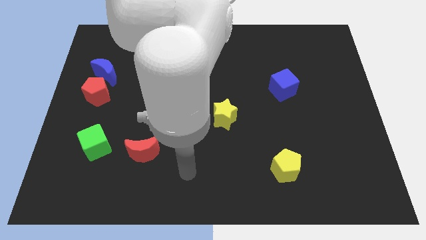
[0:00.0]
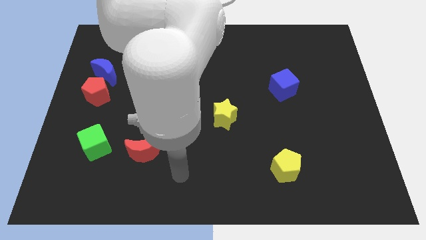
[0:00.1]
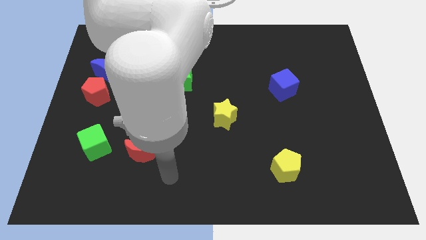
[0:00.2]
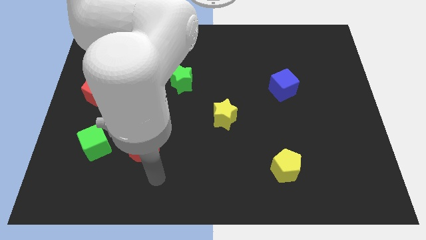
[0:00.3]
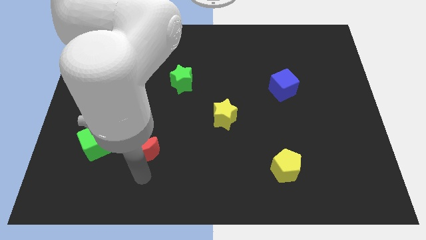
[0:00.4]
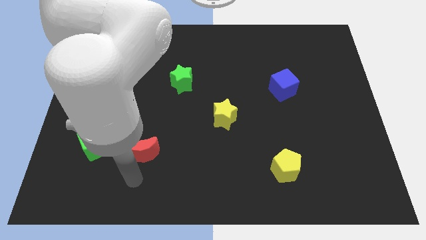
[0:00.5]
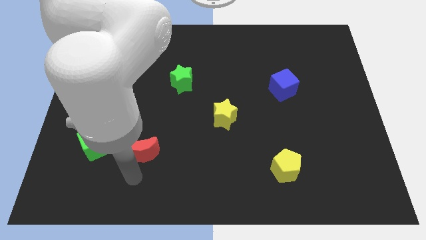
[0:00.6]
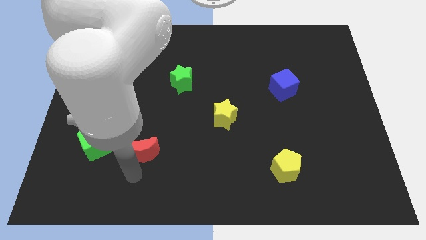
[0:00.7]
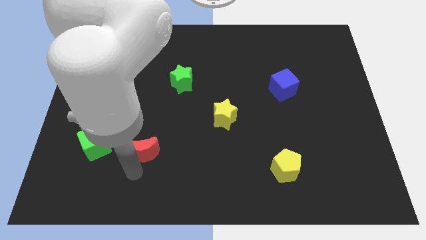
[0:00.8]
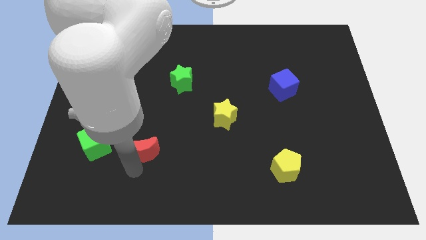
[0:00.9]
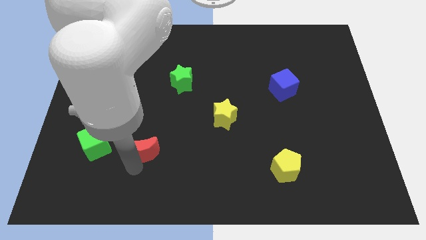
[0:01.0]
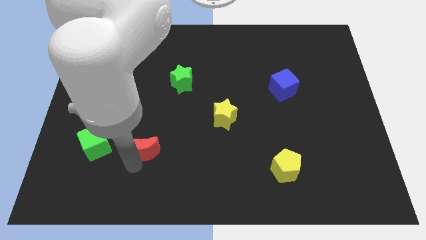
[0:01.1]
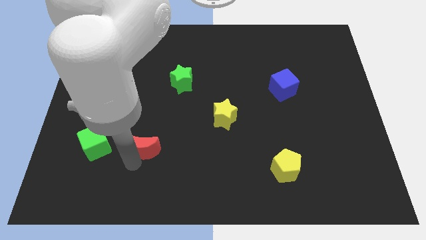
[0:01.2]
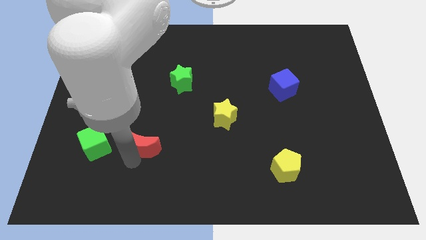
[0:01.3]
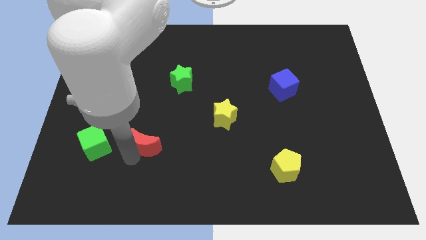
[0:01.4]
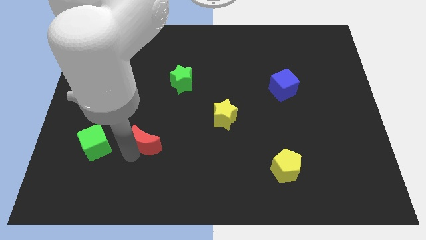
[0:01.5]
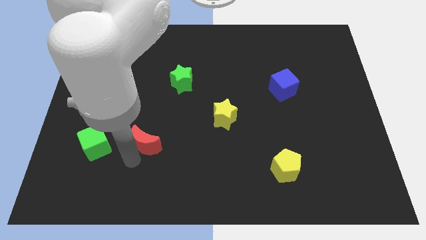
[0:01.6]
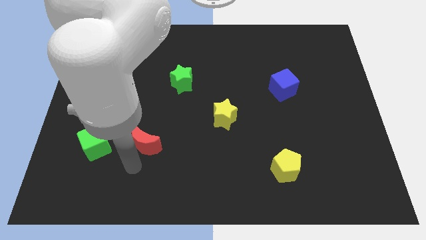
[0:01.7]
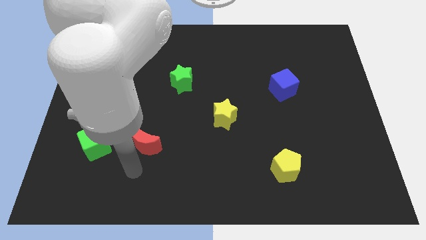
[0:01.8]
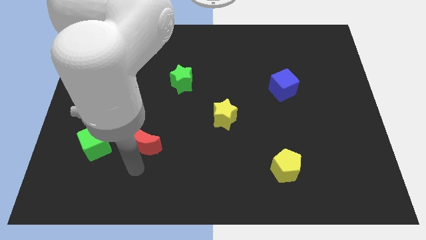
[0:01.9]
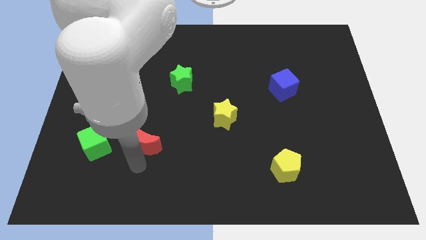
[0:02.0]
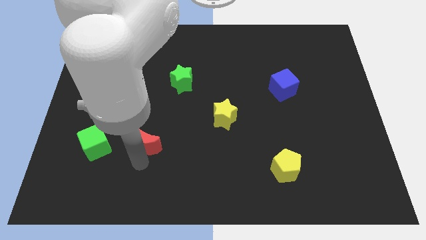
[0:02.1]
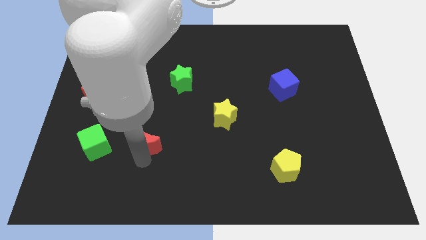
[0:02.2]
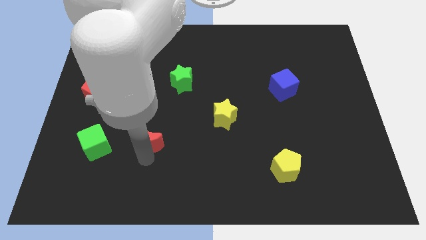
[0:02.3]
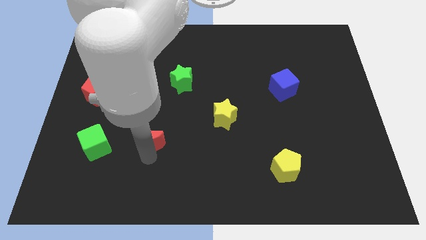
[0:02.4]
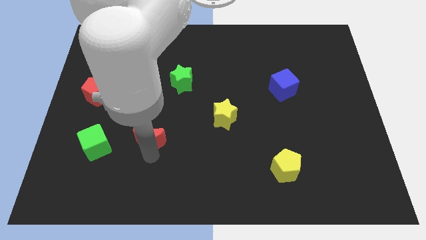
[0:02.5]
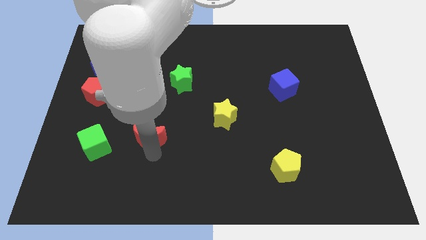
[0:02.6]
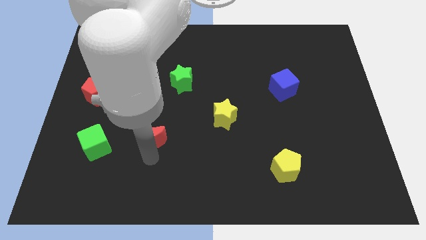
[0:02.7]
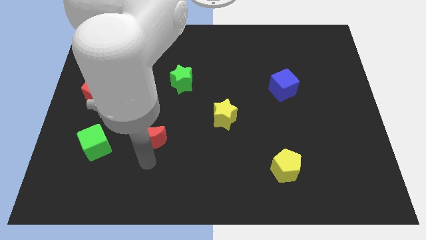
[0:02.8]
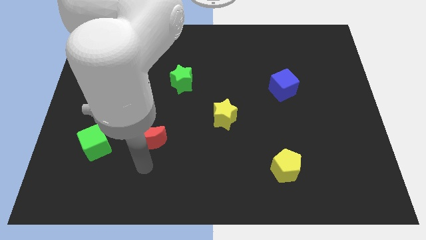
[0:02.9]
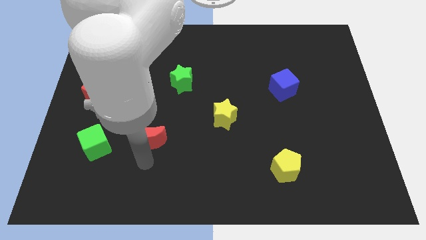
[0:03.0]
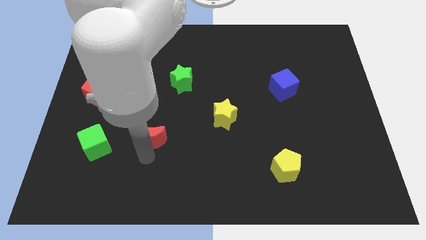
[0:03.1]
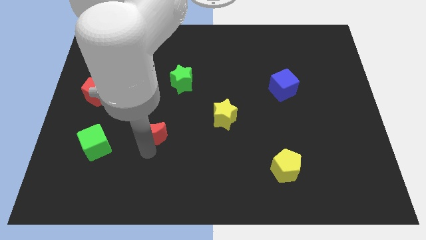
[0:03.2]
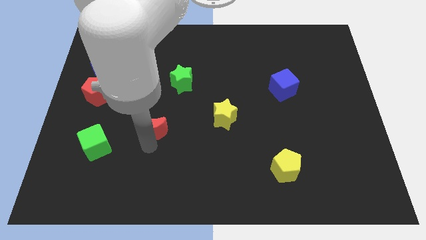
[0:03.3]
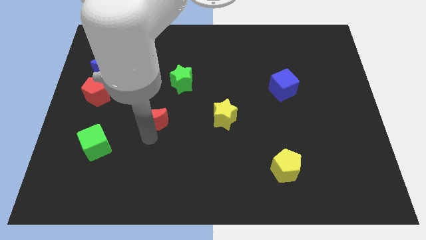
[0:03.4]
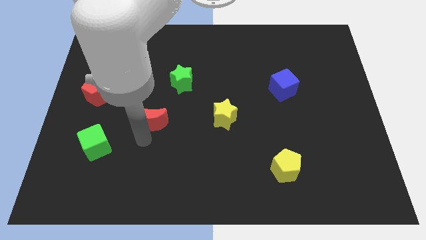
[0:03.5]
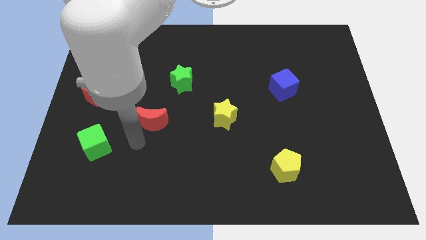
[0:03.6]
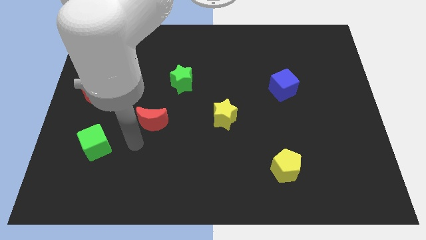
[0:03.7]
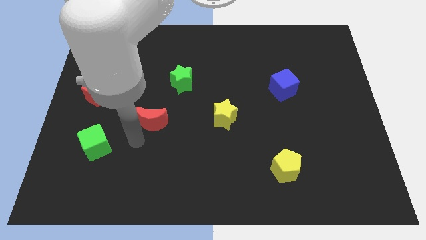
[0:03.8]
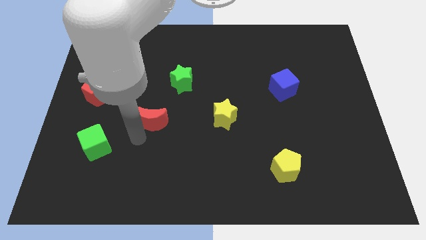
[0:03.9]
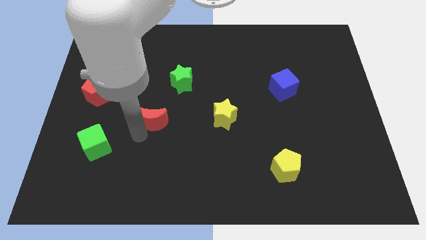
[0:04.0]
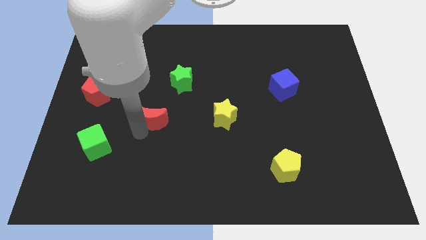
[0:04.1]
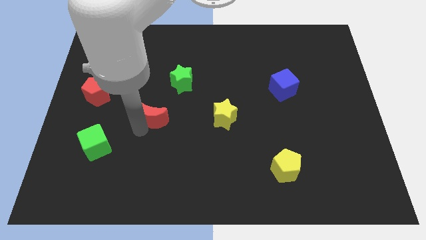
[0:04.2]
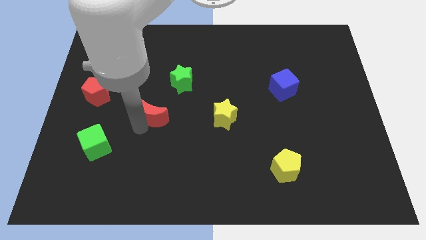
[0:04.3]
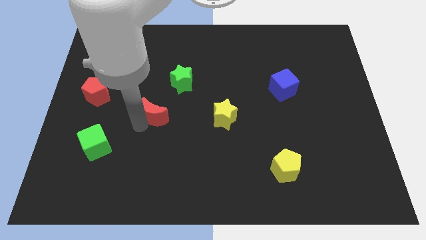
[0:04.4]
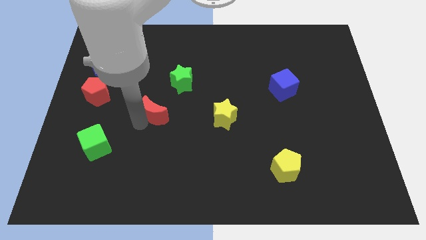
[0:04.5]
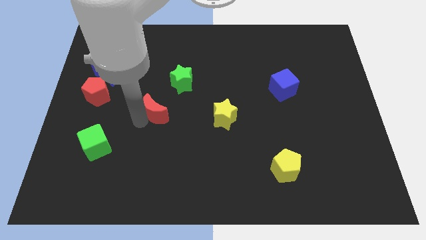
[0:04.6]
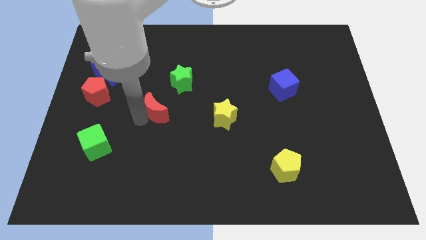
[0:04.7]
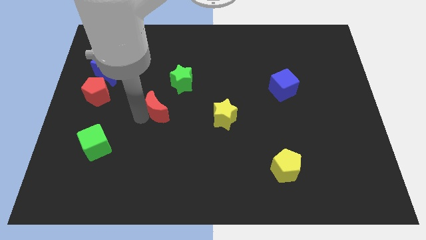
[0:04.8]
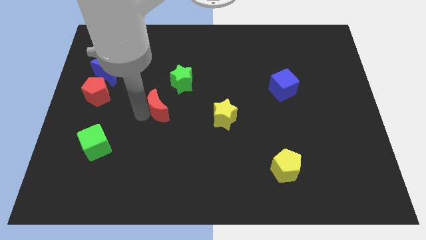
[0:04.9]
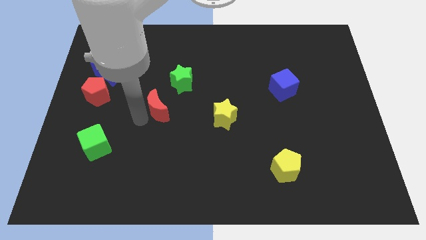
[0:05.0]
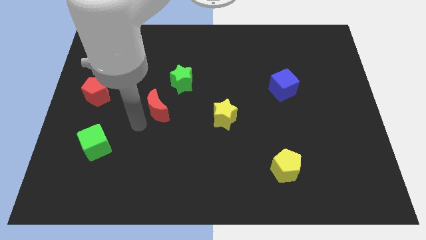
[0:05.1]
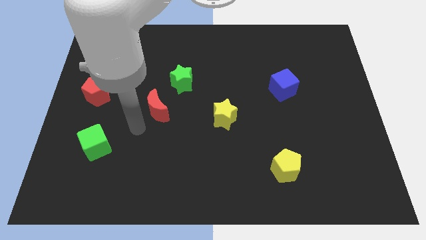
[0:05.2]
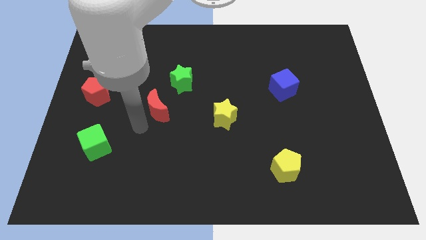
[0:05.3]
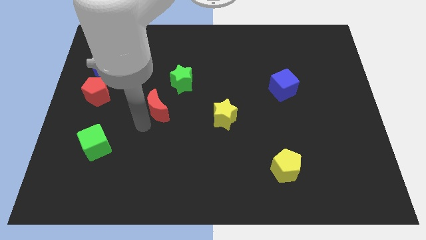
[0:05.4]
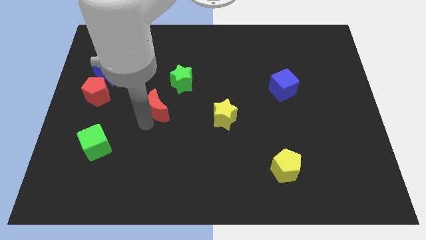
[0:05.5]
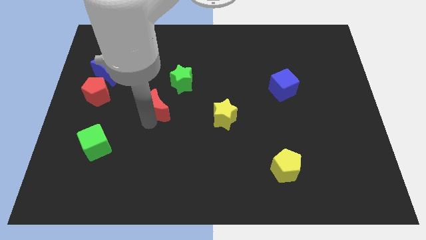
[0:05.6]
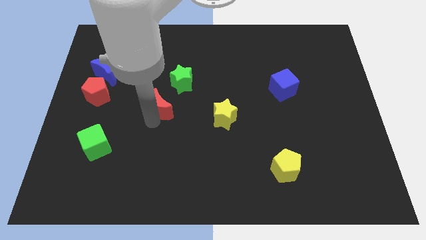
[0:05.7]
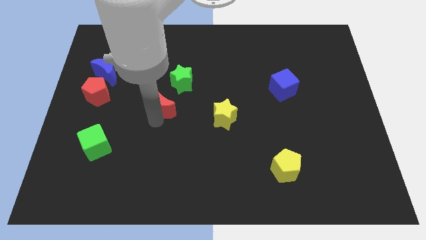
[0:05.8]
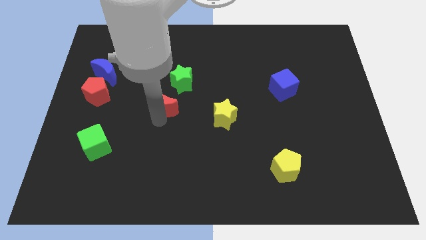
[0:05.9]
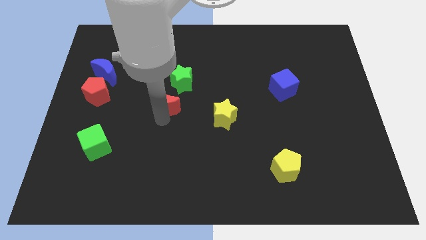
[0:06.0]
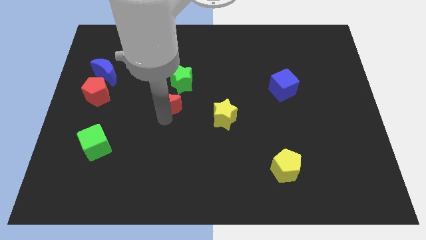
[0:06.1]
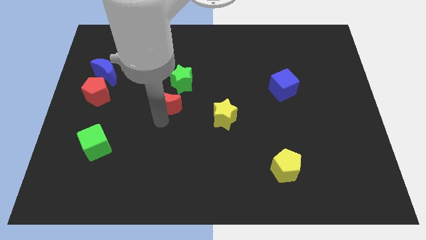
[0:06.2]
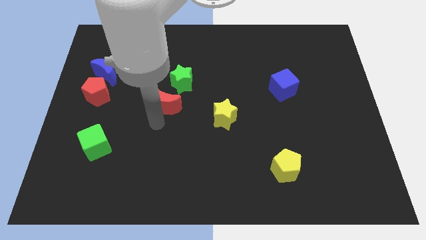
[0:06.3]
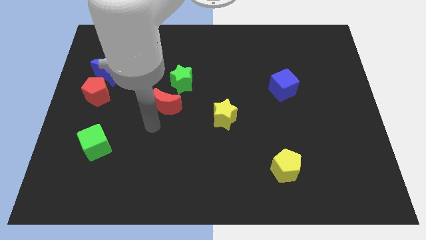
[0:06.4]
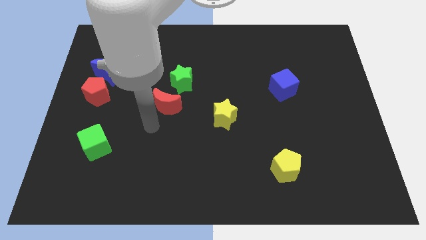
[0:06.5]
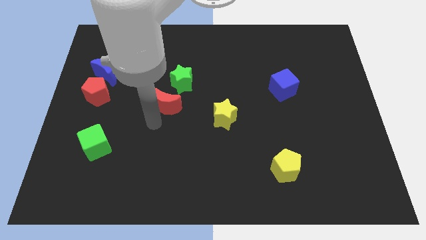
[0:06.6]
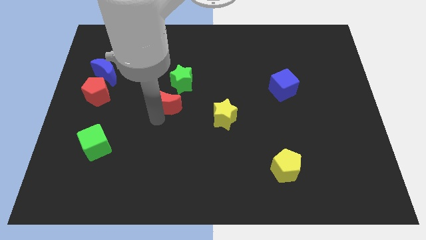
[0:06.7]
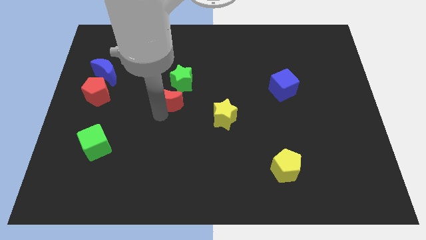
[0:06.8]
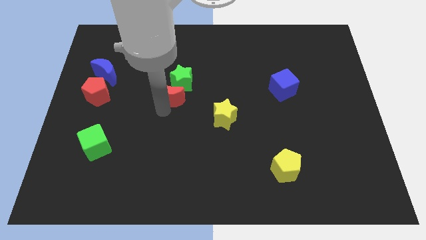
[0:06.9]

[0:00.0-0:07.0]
push the red moon next to the green star

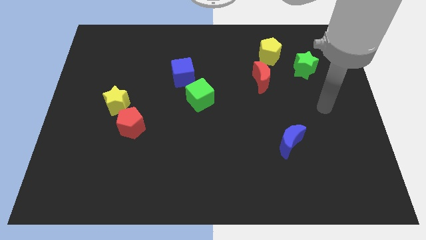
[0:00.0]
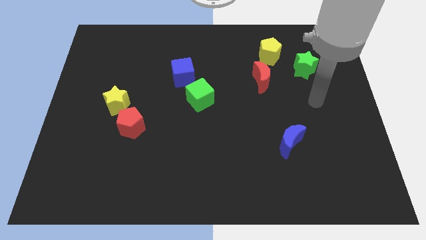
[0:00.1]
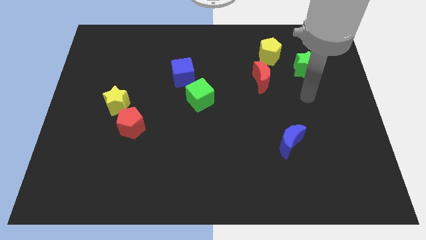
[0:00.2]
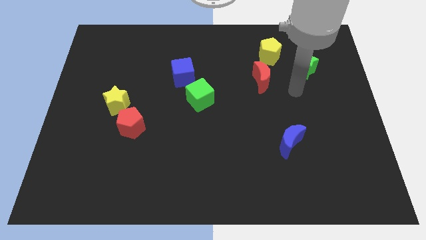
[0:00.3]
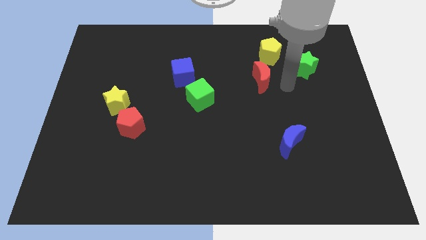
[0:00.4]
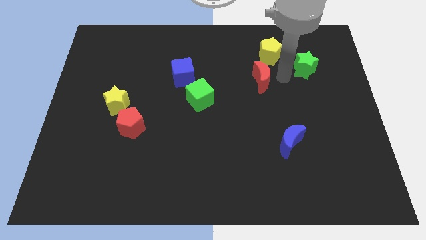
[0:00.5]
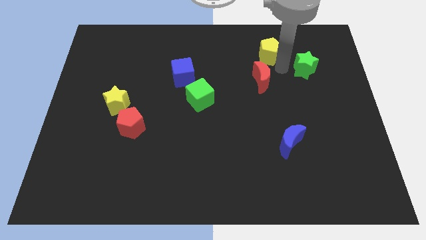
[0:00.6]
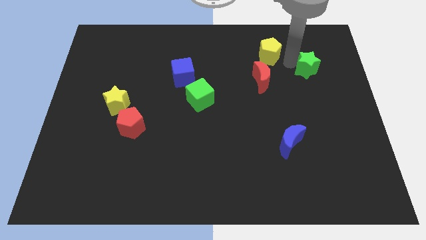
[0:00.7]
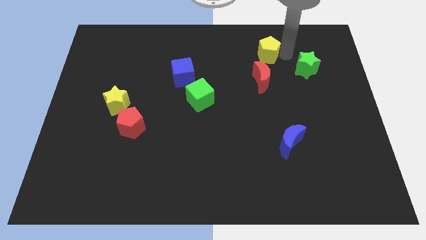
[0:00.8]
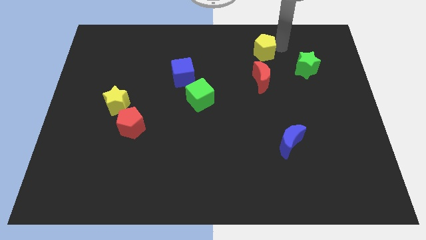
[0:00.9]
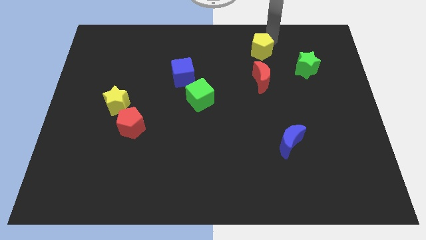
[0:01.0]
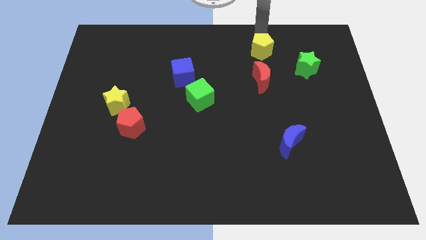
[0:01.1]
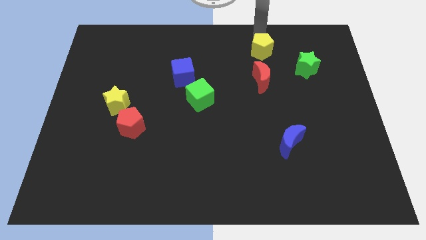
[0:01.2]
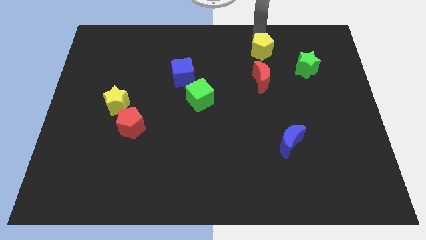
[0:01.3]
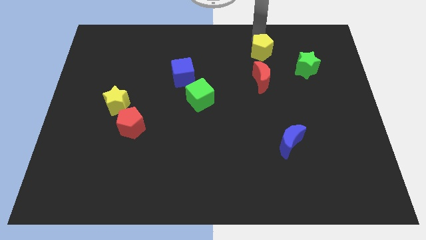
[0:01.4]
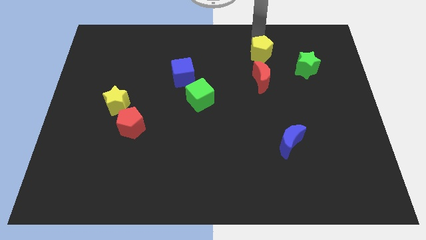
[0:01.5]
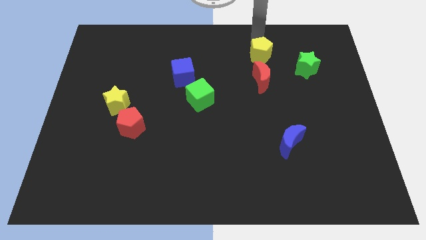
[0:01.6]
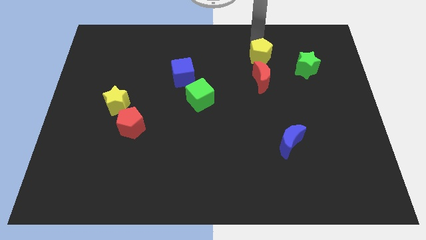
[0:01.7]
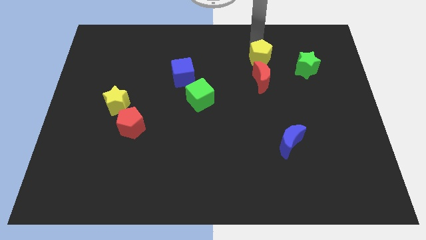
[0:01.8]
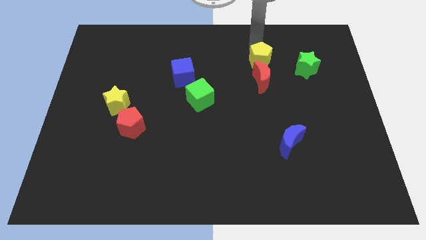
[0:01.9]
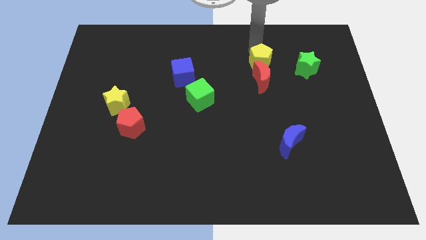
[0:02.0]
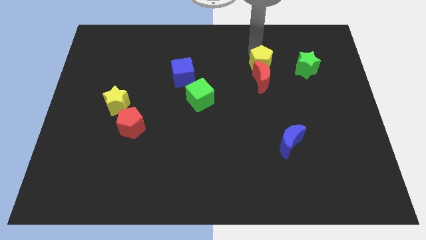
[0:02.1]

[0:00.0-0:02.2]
move the yellow pentagon towards the red moon
